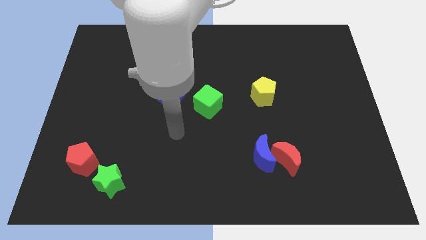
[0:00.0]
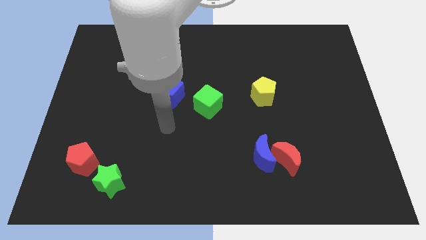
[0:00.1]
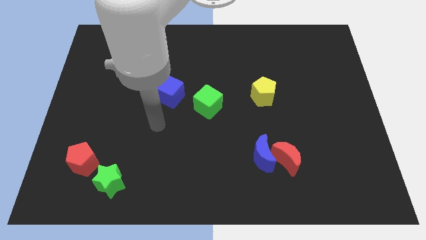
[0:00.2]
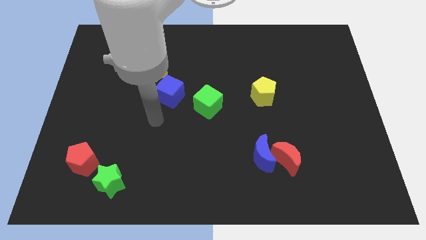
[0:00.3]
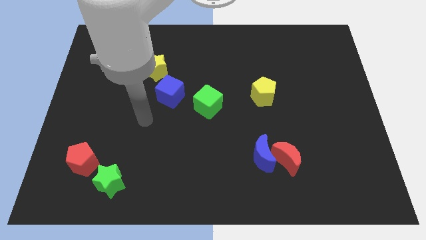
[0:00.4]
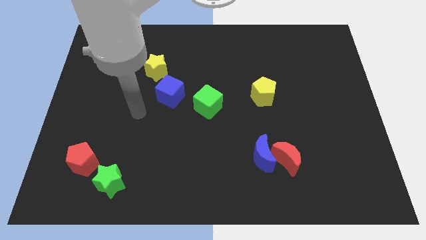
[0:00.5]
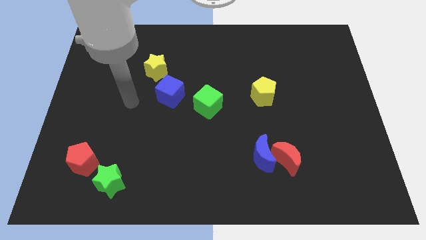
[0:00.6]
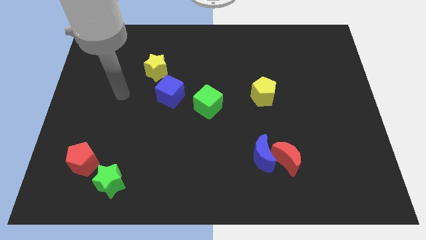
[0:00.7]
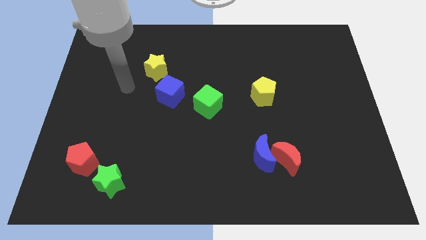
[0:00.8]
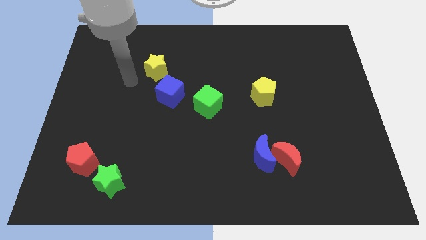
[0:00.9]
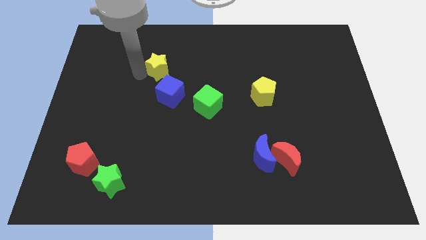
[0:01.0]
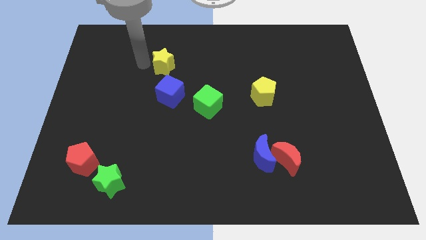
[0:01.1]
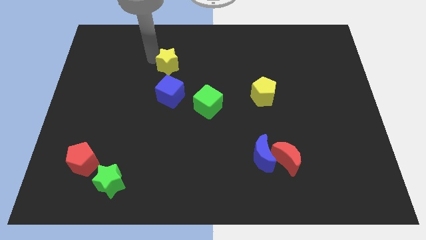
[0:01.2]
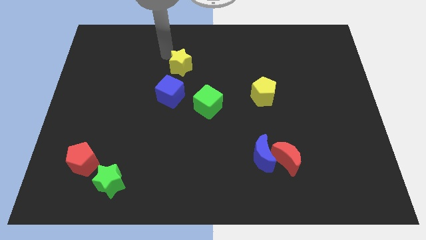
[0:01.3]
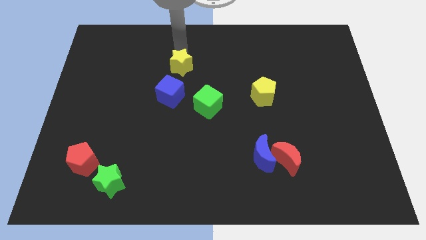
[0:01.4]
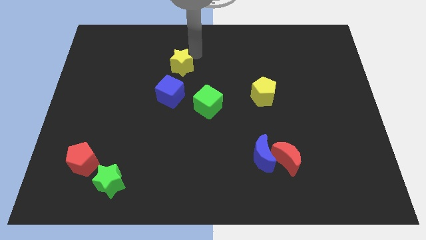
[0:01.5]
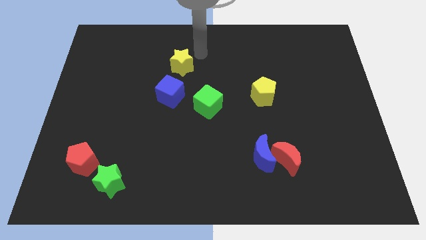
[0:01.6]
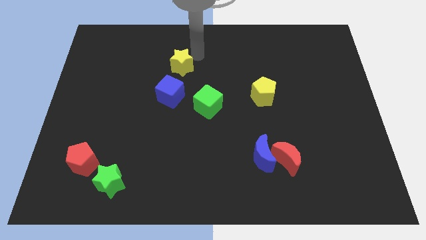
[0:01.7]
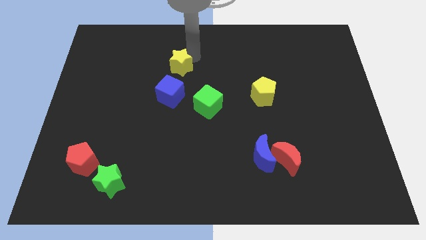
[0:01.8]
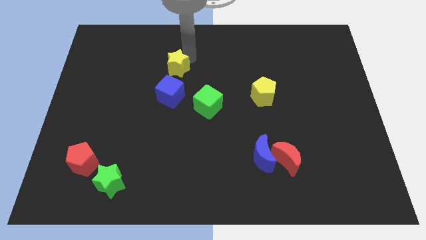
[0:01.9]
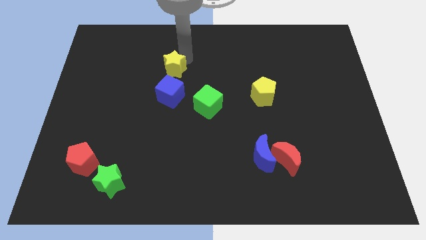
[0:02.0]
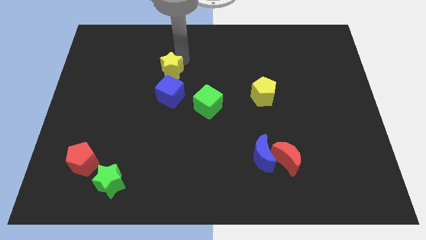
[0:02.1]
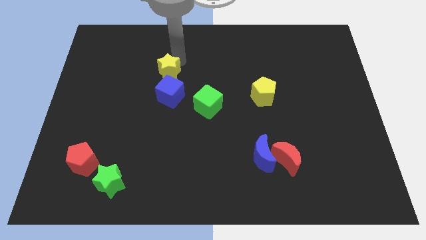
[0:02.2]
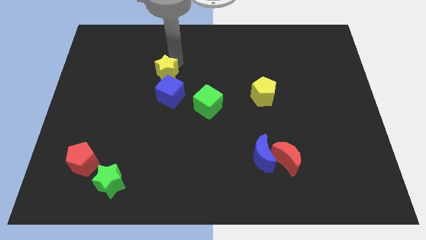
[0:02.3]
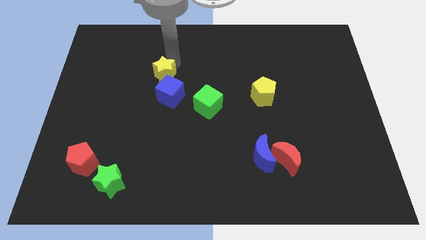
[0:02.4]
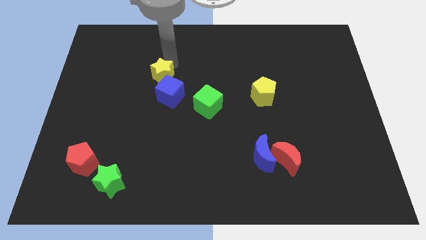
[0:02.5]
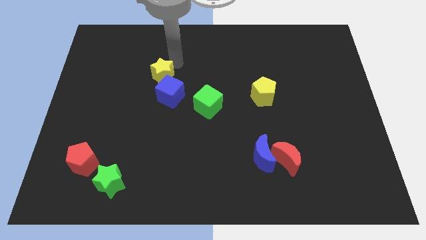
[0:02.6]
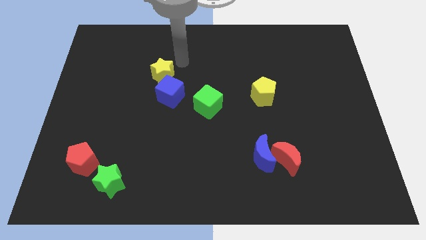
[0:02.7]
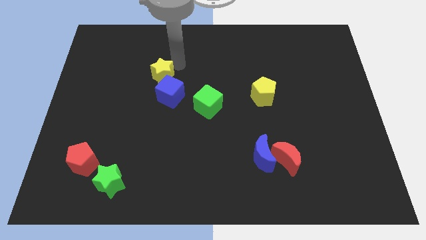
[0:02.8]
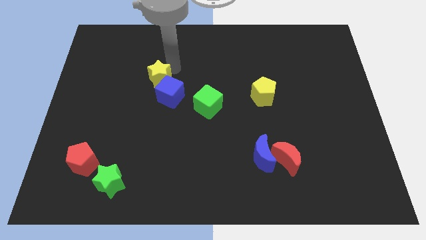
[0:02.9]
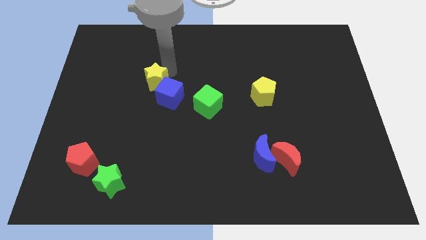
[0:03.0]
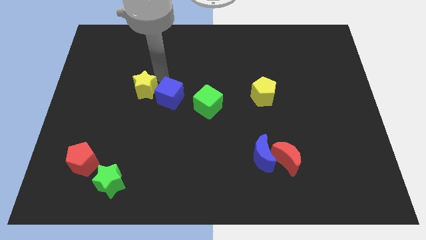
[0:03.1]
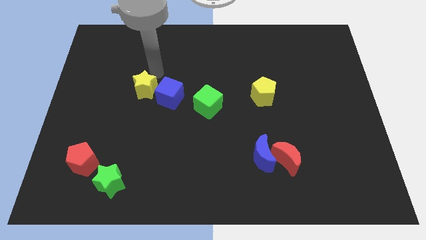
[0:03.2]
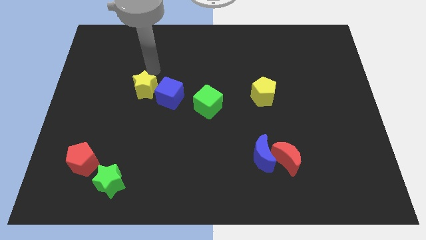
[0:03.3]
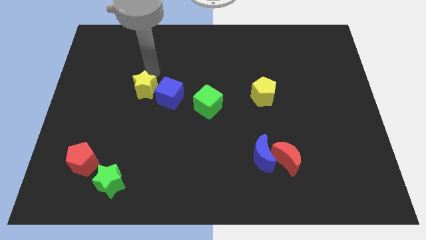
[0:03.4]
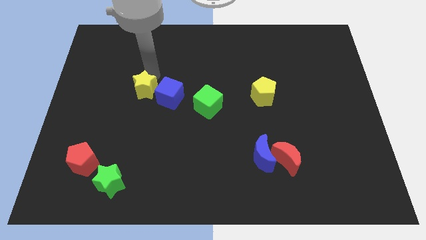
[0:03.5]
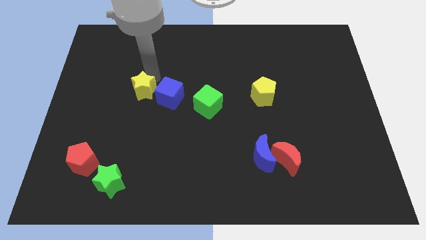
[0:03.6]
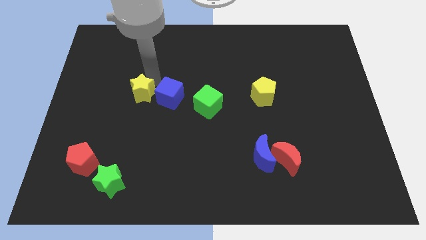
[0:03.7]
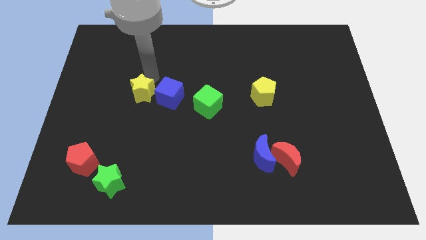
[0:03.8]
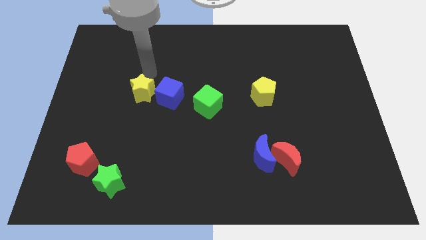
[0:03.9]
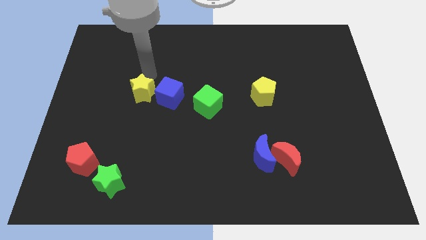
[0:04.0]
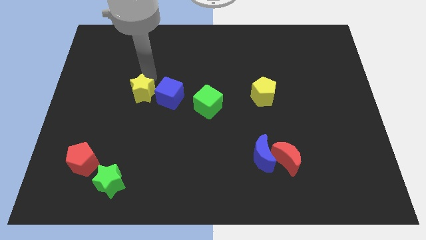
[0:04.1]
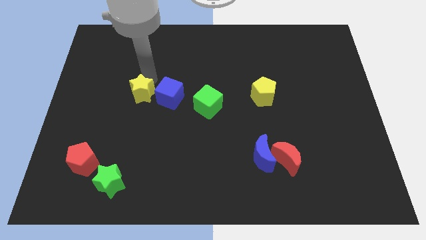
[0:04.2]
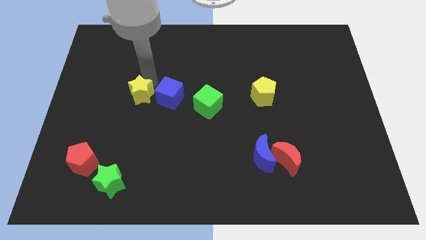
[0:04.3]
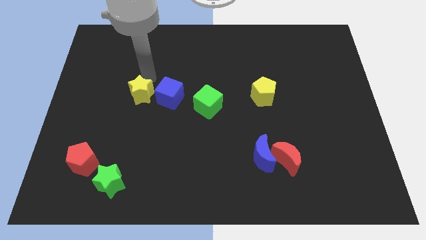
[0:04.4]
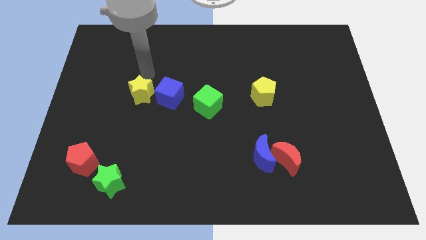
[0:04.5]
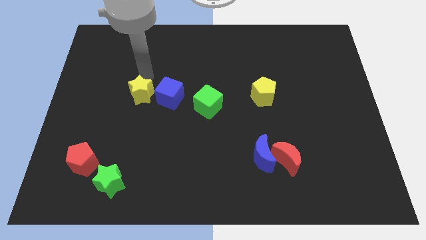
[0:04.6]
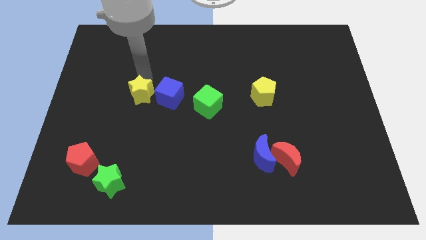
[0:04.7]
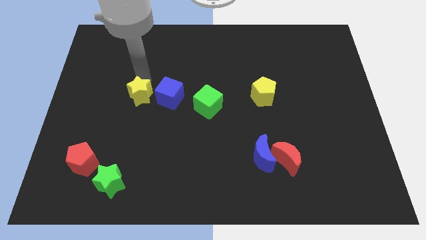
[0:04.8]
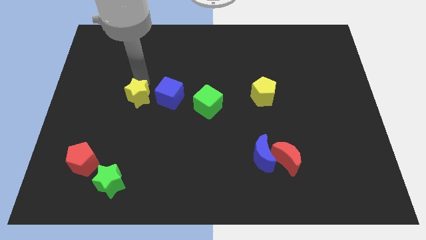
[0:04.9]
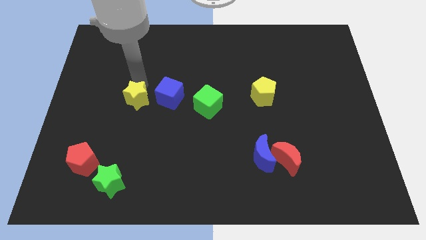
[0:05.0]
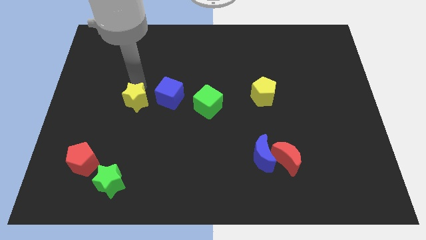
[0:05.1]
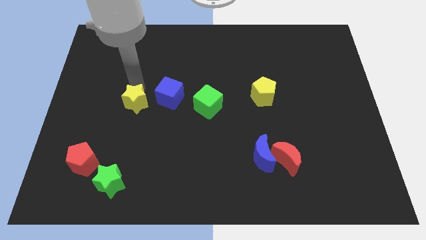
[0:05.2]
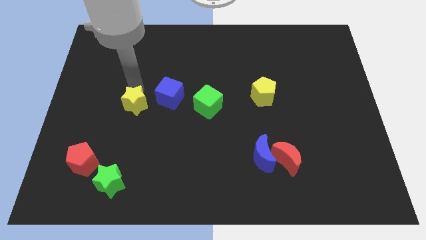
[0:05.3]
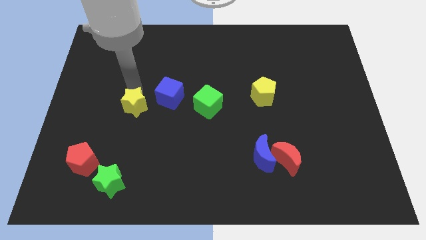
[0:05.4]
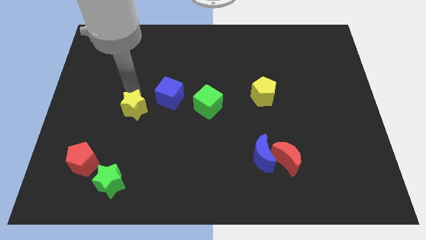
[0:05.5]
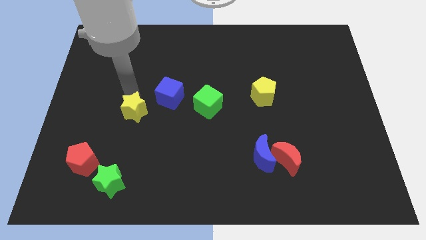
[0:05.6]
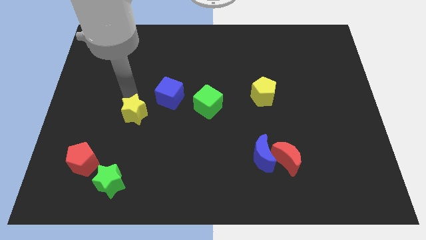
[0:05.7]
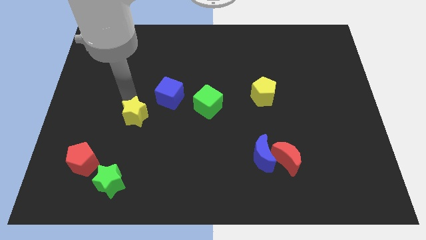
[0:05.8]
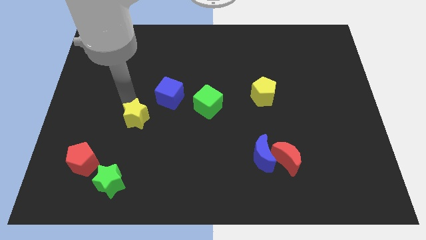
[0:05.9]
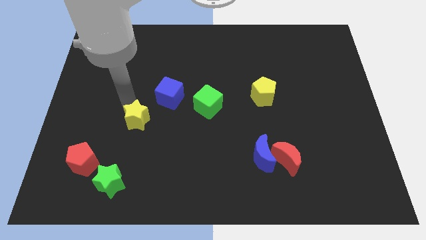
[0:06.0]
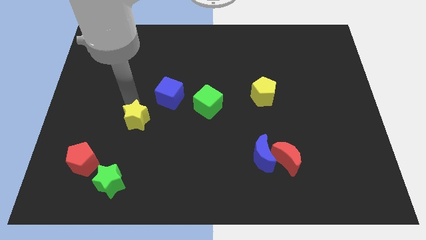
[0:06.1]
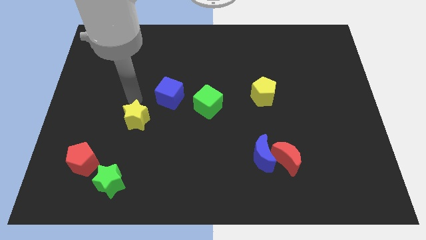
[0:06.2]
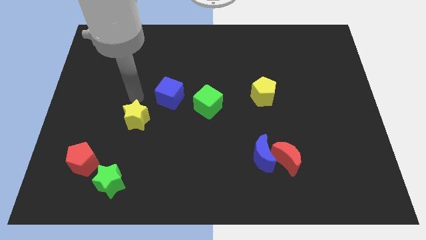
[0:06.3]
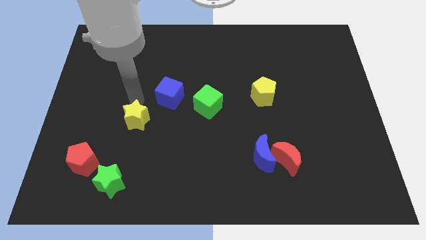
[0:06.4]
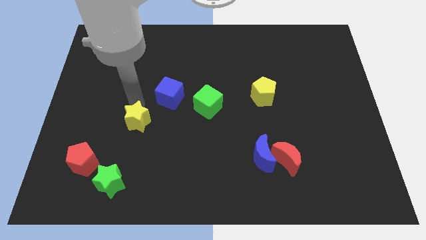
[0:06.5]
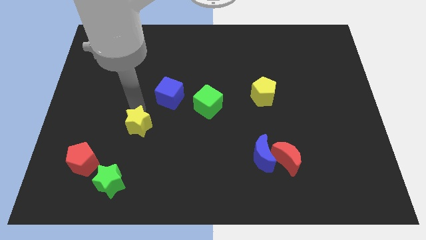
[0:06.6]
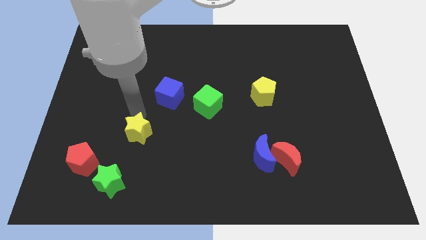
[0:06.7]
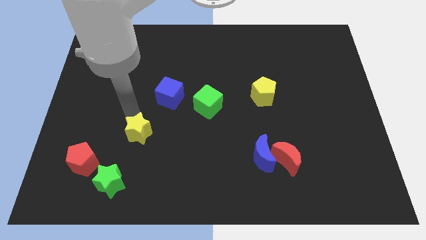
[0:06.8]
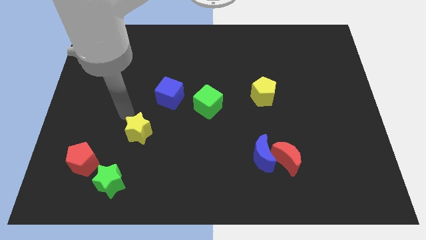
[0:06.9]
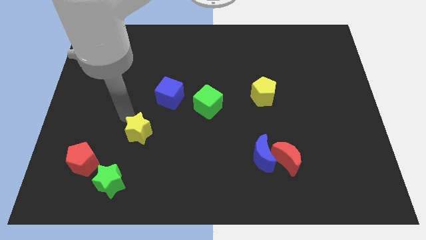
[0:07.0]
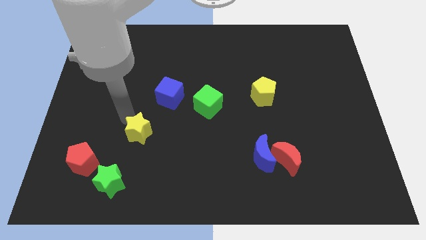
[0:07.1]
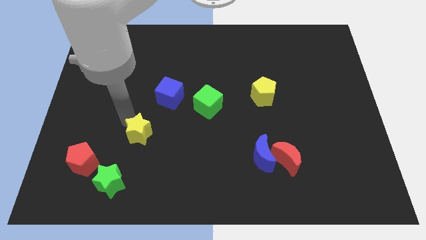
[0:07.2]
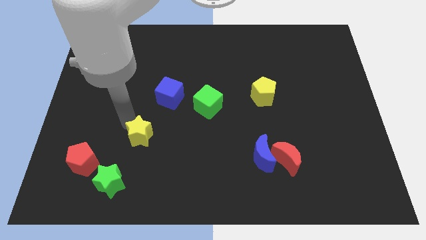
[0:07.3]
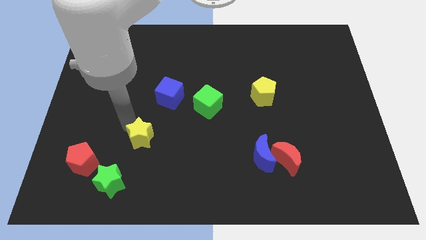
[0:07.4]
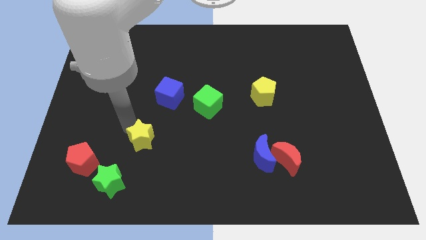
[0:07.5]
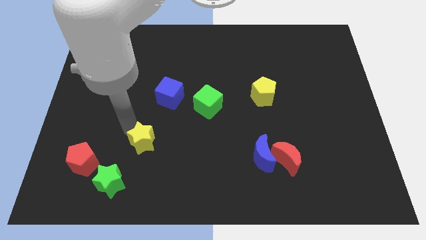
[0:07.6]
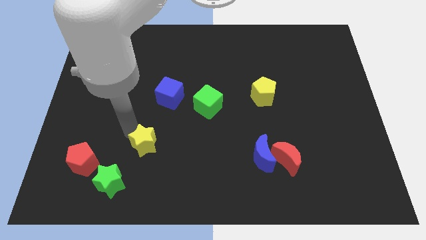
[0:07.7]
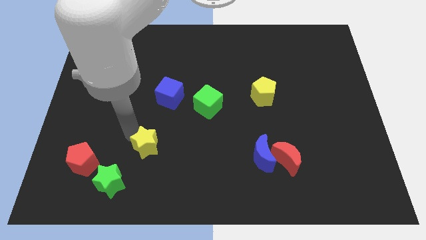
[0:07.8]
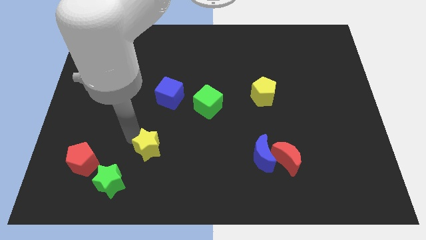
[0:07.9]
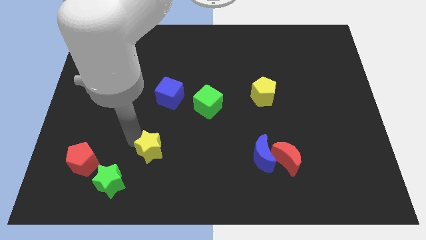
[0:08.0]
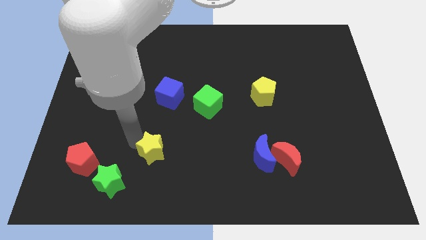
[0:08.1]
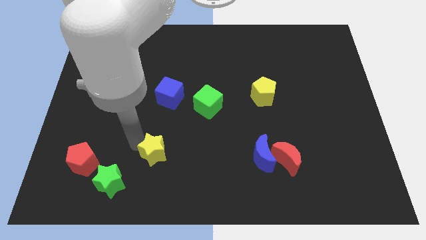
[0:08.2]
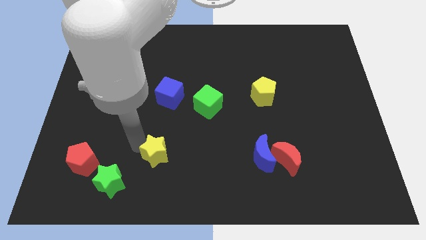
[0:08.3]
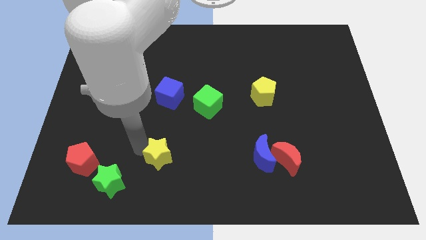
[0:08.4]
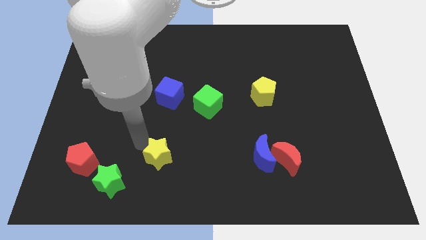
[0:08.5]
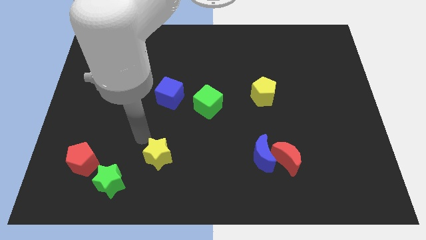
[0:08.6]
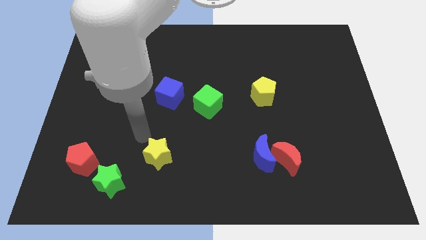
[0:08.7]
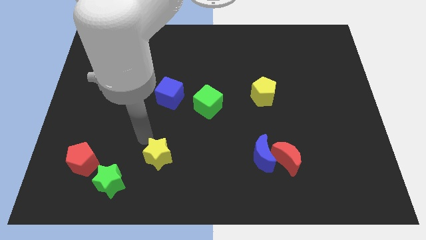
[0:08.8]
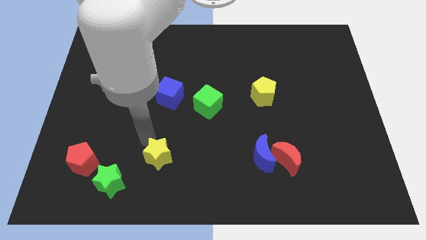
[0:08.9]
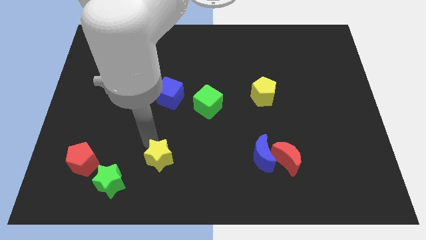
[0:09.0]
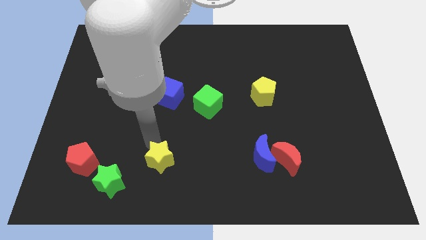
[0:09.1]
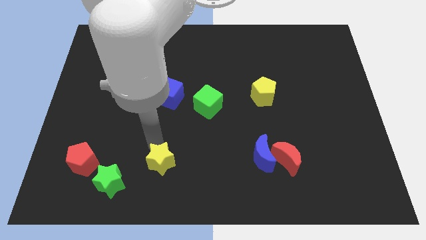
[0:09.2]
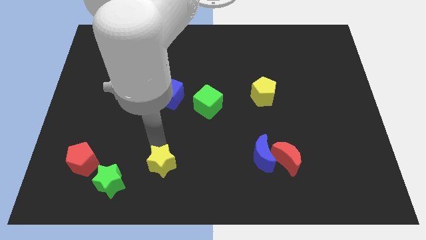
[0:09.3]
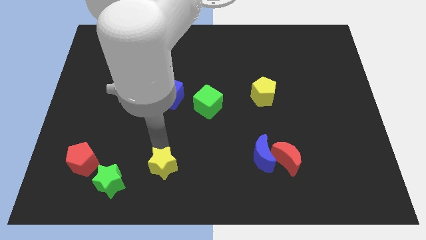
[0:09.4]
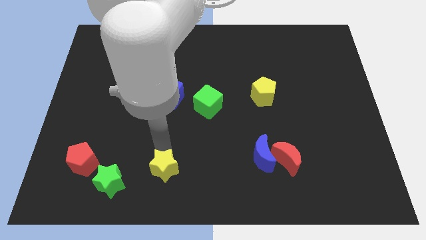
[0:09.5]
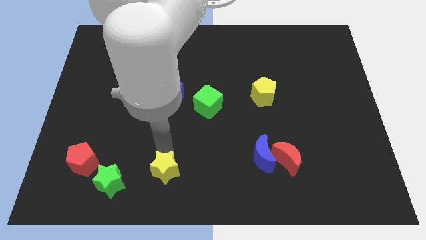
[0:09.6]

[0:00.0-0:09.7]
slide the yellow star to the bottom
